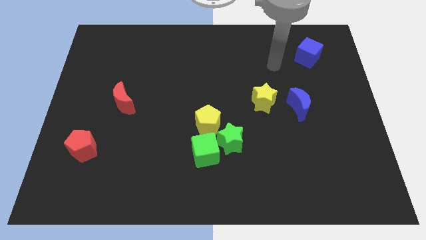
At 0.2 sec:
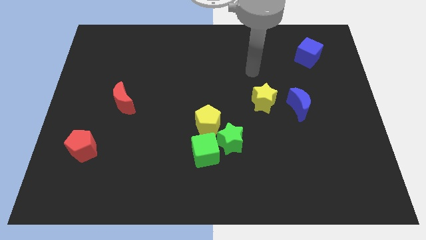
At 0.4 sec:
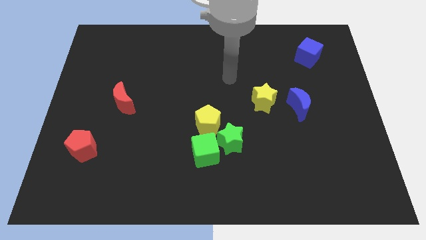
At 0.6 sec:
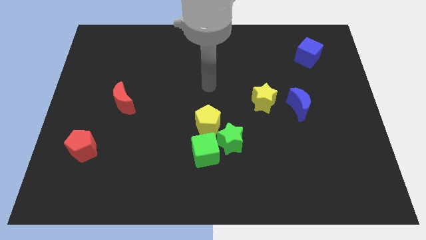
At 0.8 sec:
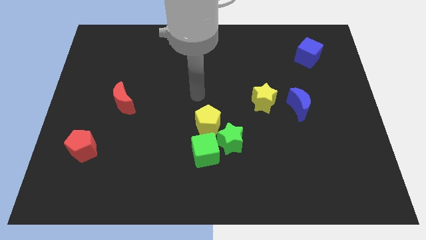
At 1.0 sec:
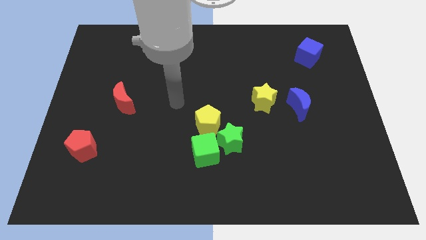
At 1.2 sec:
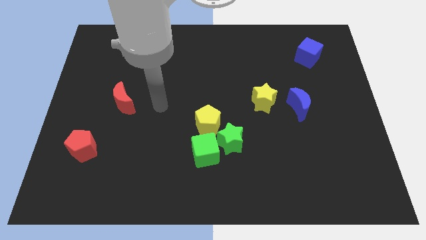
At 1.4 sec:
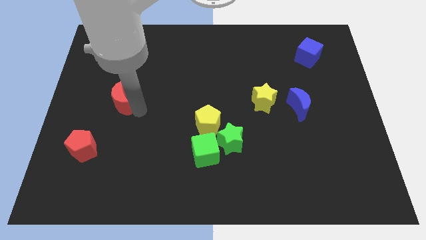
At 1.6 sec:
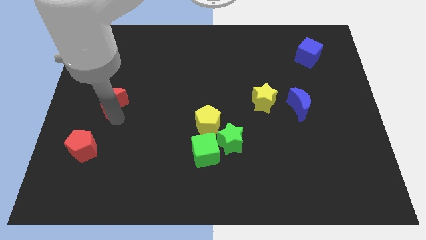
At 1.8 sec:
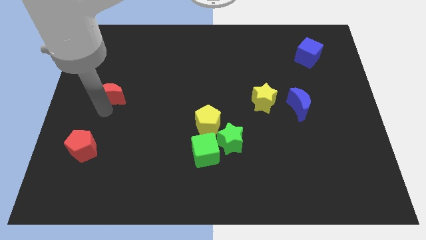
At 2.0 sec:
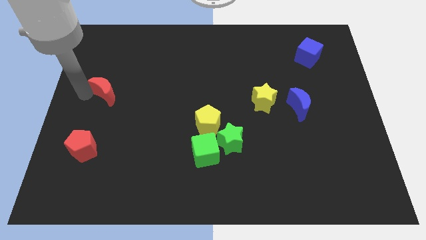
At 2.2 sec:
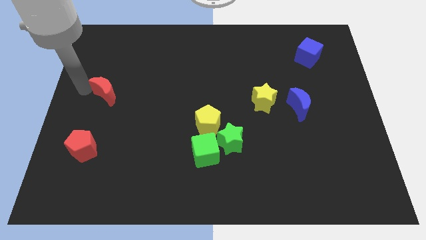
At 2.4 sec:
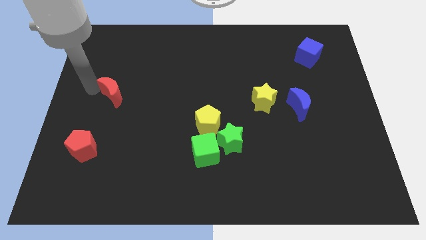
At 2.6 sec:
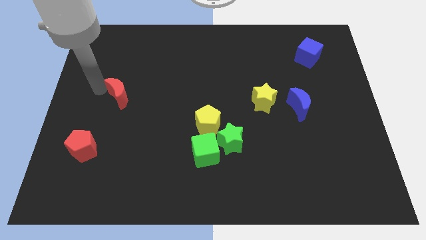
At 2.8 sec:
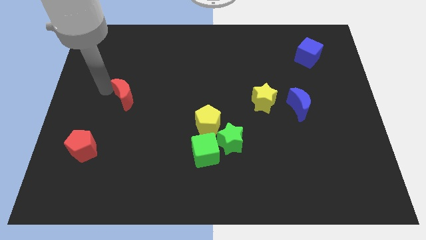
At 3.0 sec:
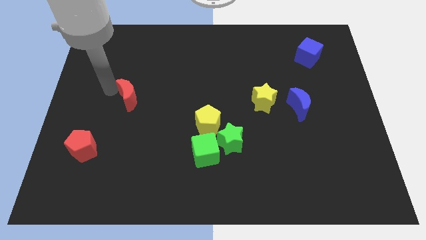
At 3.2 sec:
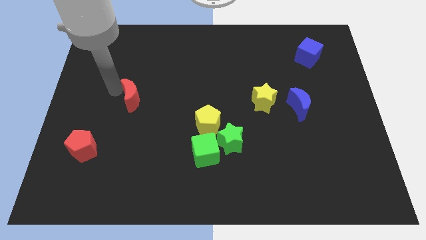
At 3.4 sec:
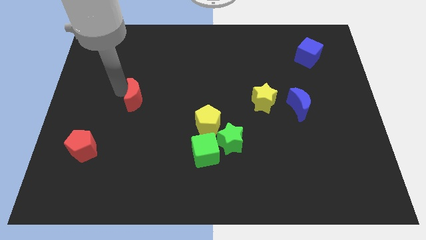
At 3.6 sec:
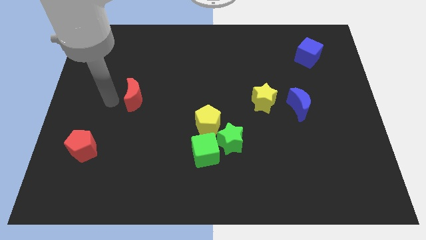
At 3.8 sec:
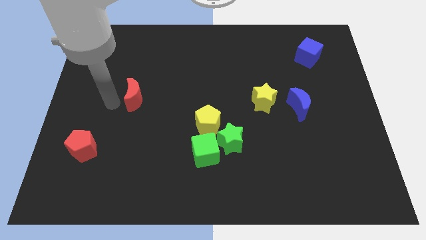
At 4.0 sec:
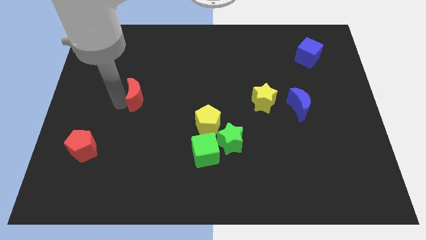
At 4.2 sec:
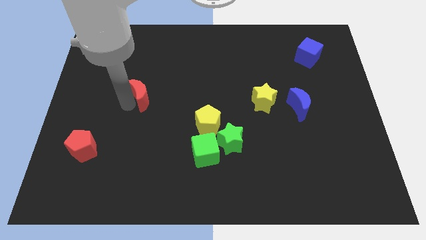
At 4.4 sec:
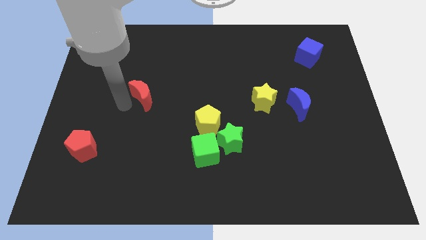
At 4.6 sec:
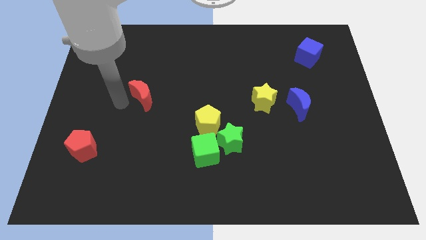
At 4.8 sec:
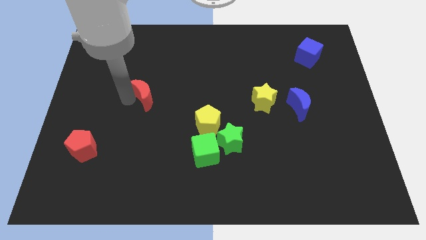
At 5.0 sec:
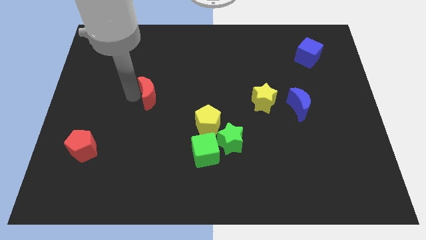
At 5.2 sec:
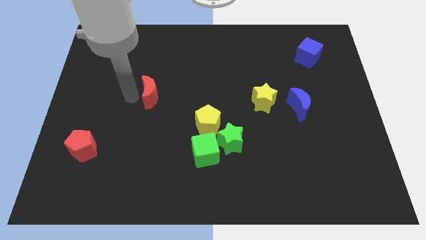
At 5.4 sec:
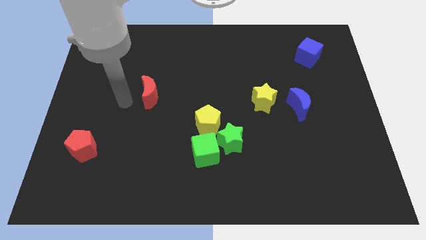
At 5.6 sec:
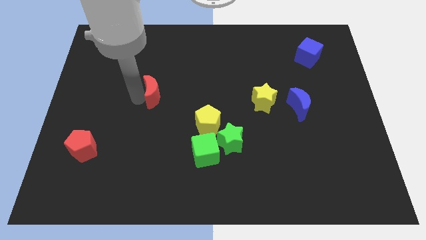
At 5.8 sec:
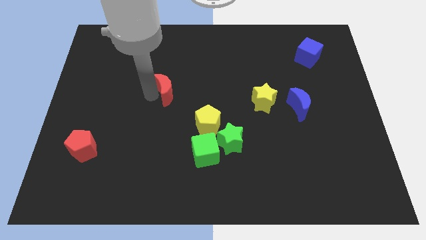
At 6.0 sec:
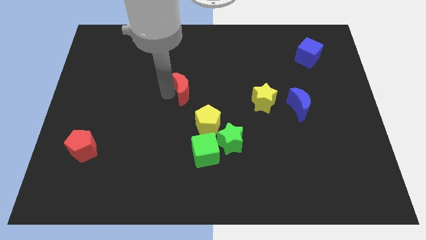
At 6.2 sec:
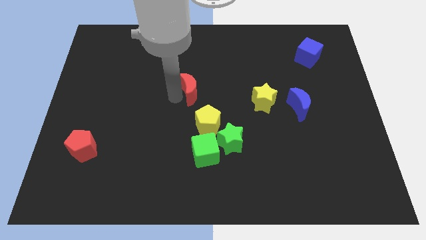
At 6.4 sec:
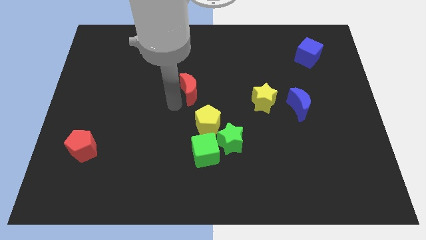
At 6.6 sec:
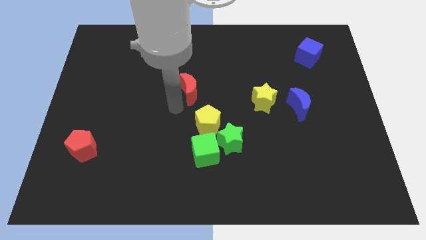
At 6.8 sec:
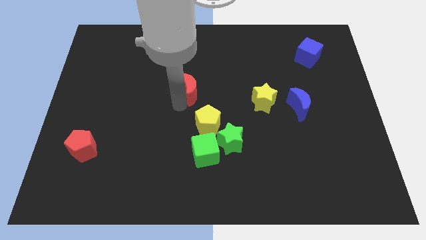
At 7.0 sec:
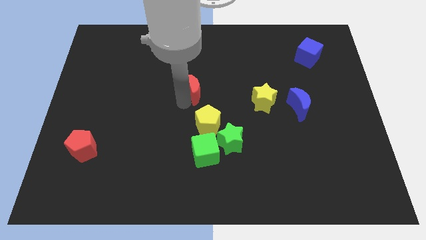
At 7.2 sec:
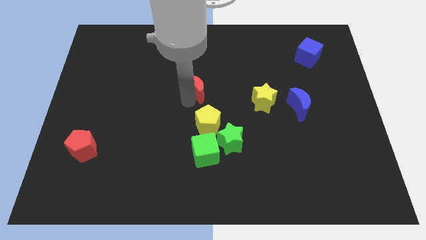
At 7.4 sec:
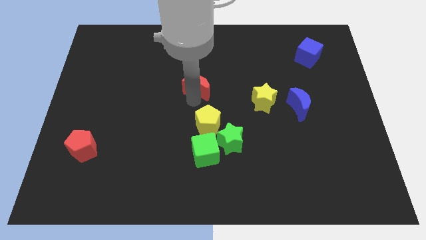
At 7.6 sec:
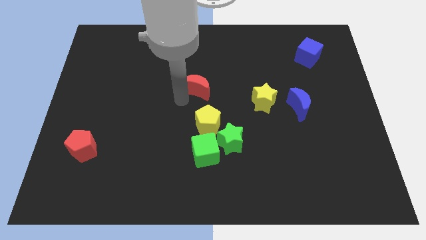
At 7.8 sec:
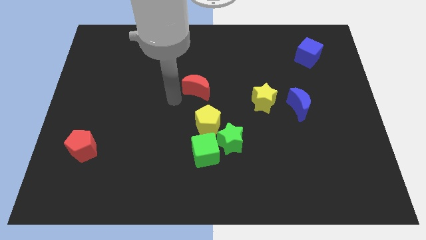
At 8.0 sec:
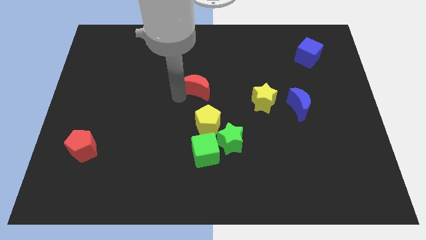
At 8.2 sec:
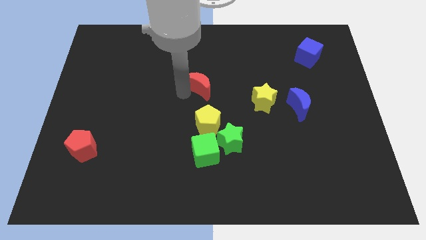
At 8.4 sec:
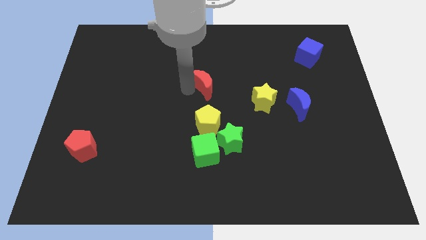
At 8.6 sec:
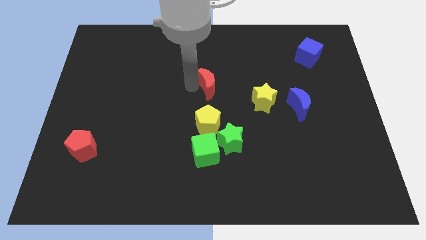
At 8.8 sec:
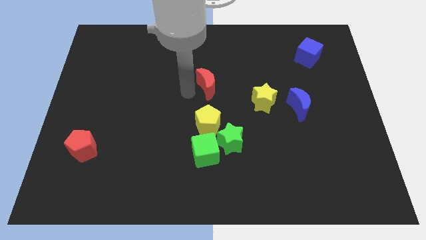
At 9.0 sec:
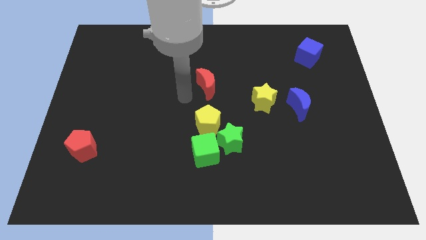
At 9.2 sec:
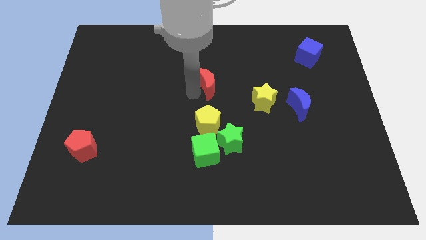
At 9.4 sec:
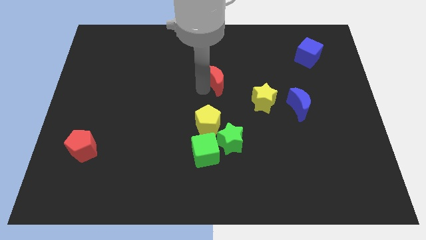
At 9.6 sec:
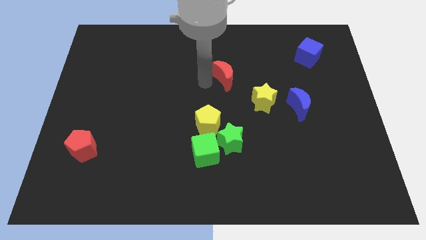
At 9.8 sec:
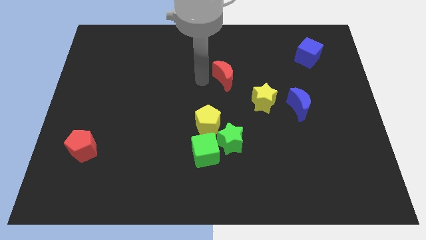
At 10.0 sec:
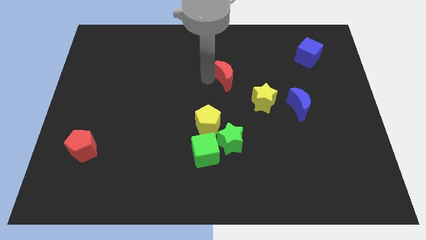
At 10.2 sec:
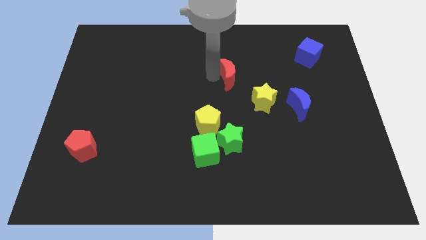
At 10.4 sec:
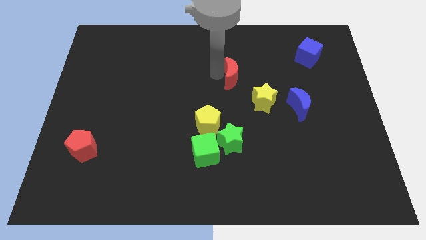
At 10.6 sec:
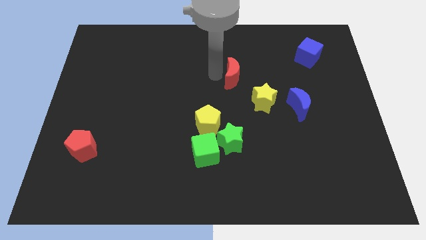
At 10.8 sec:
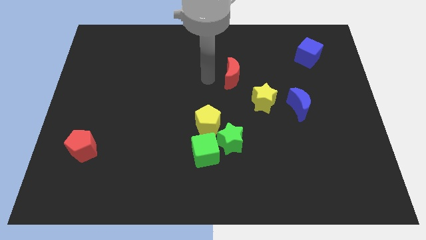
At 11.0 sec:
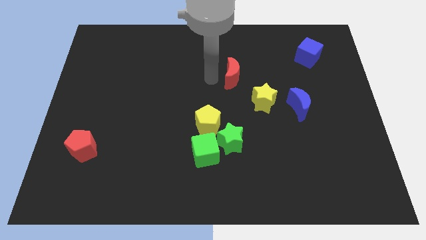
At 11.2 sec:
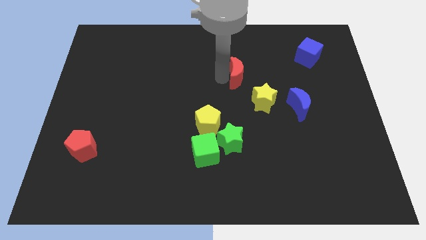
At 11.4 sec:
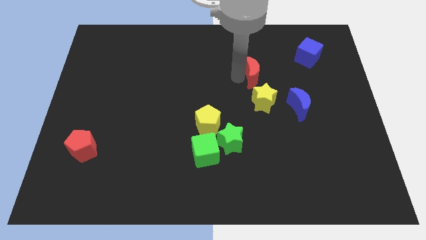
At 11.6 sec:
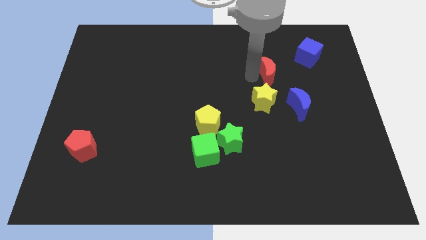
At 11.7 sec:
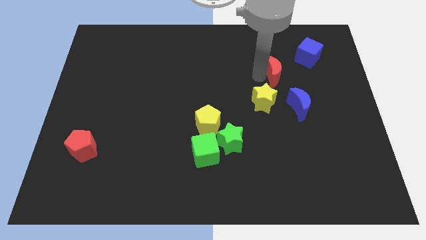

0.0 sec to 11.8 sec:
move the red moon to the bottom left side of the blue cube

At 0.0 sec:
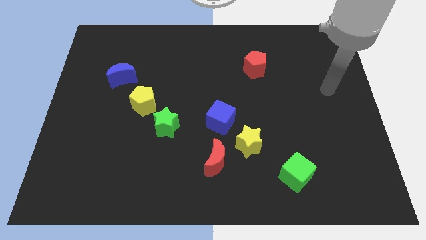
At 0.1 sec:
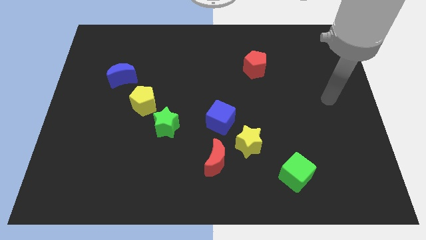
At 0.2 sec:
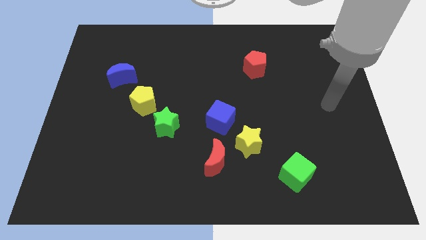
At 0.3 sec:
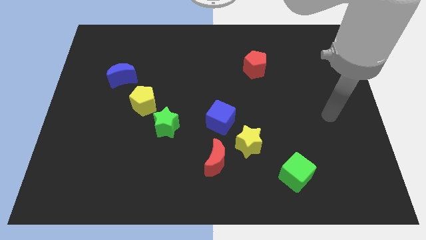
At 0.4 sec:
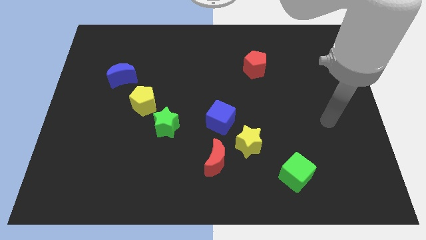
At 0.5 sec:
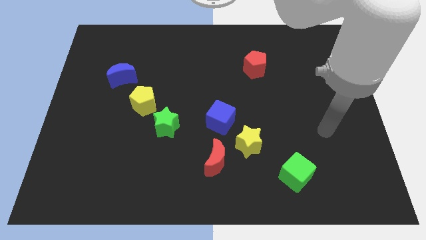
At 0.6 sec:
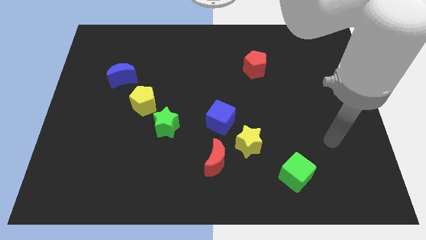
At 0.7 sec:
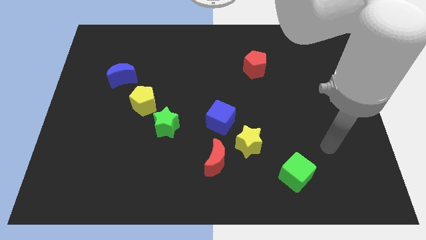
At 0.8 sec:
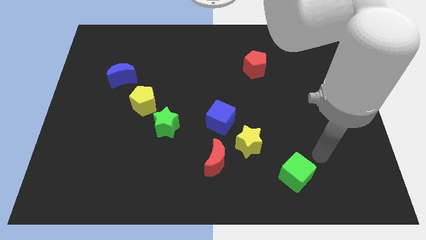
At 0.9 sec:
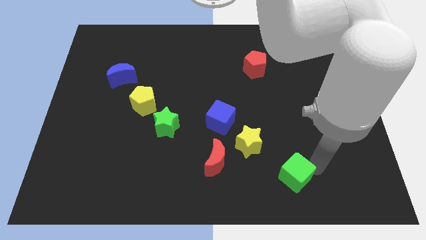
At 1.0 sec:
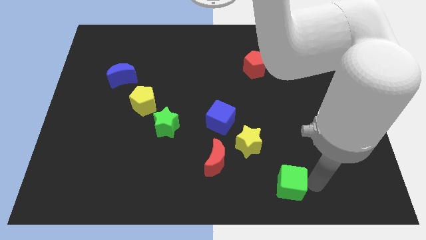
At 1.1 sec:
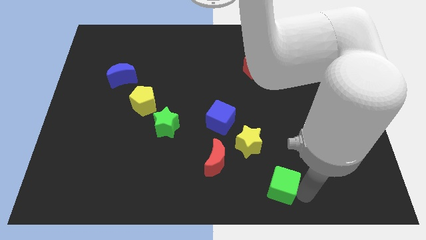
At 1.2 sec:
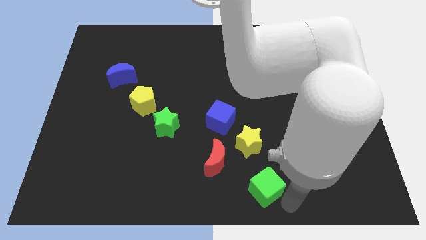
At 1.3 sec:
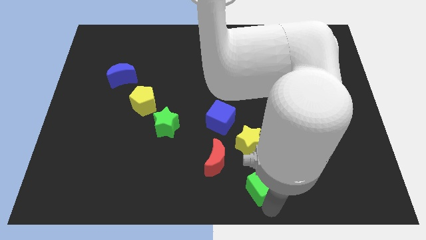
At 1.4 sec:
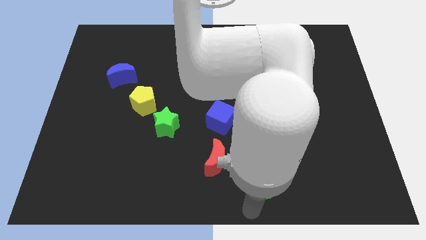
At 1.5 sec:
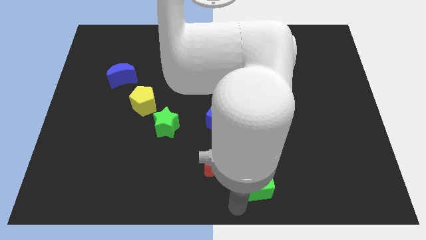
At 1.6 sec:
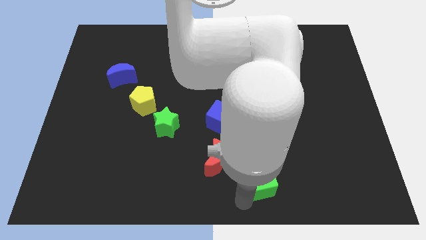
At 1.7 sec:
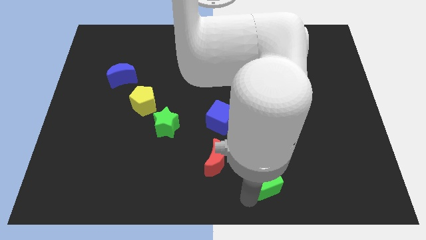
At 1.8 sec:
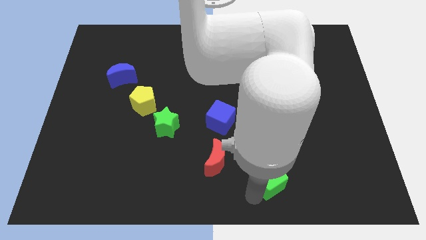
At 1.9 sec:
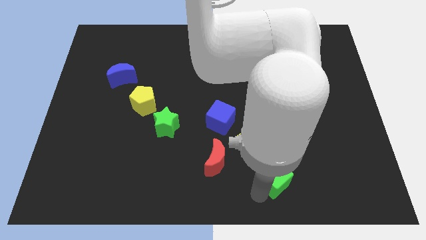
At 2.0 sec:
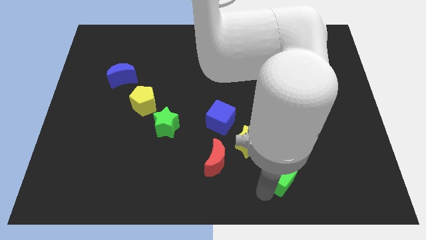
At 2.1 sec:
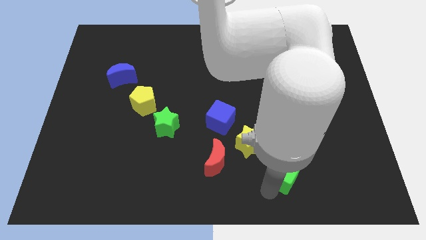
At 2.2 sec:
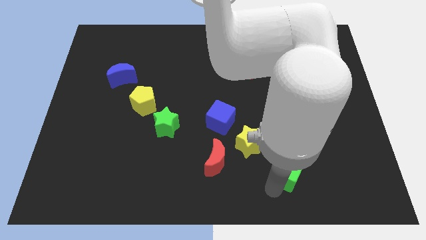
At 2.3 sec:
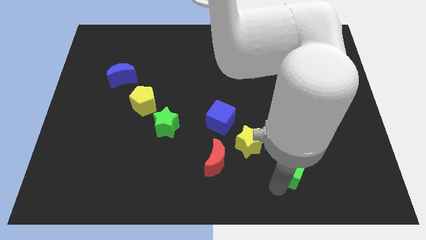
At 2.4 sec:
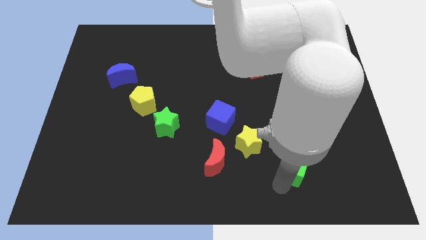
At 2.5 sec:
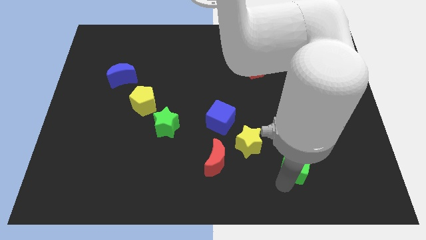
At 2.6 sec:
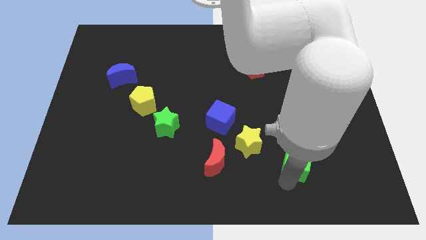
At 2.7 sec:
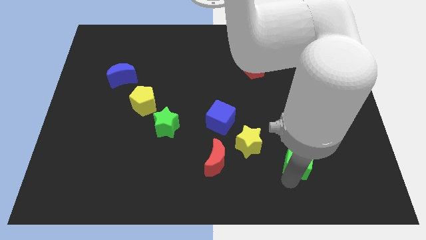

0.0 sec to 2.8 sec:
move the green cube to the right of the yellow star
